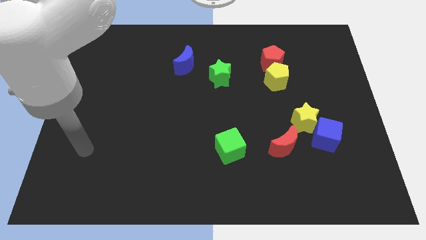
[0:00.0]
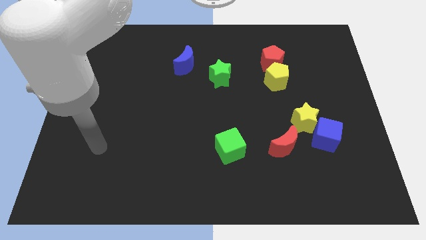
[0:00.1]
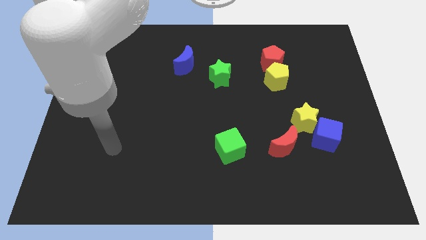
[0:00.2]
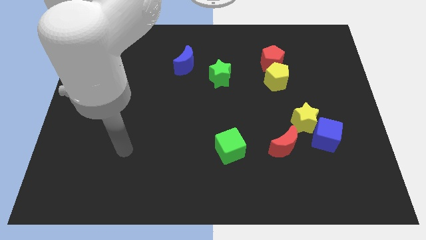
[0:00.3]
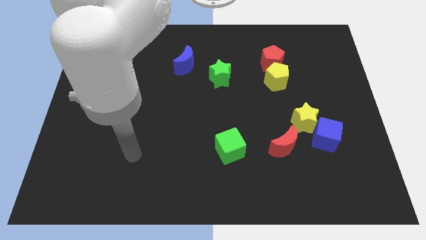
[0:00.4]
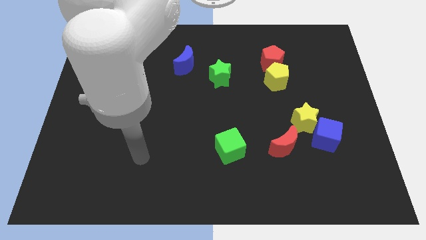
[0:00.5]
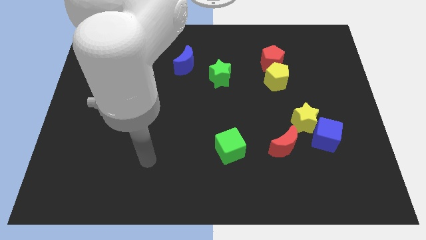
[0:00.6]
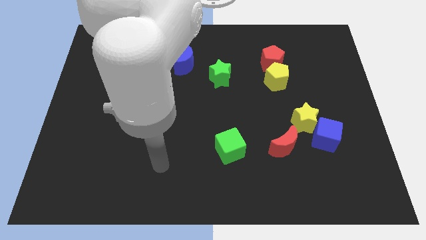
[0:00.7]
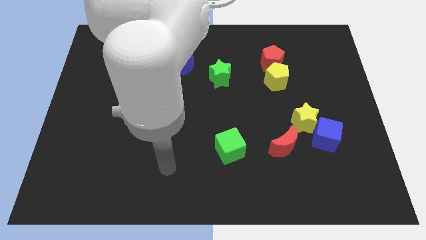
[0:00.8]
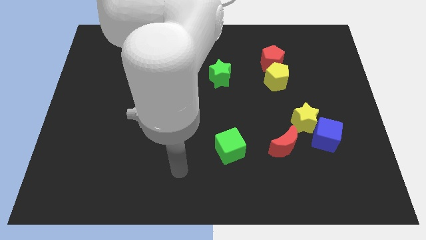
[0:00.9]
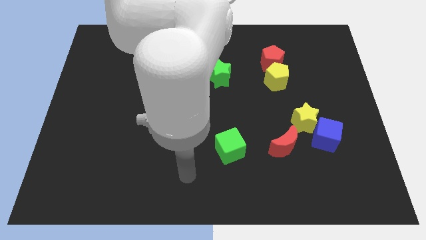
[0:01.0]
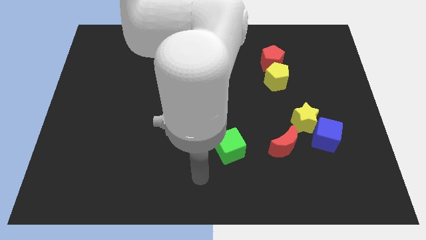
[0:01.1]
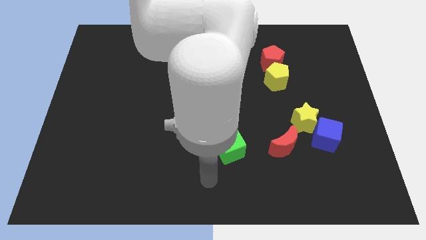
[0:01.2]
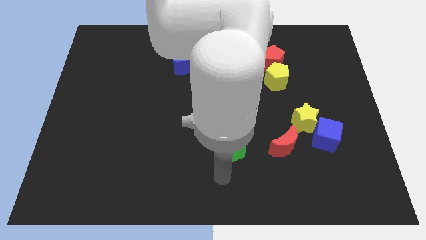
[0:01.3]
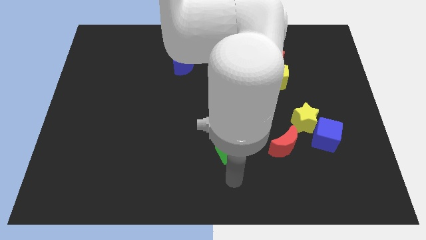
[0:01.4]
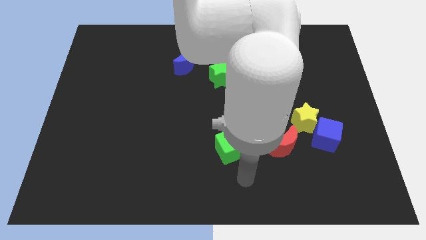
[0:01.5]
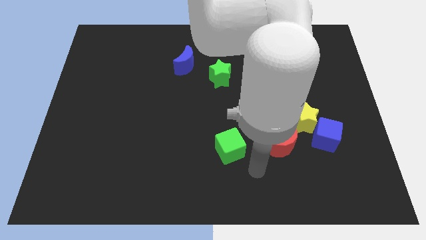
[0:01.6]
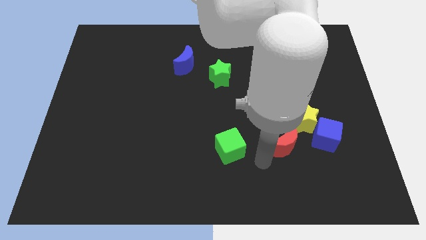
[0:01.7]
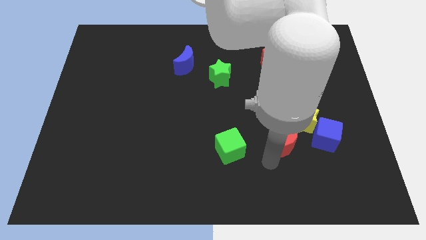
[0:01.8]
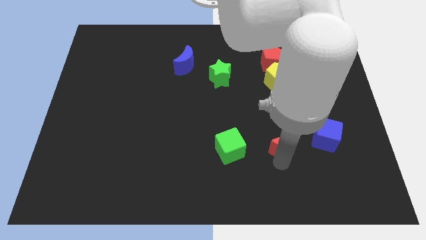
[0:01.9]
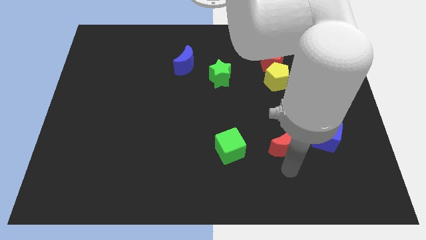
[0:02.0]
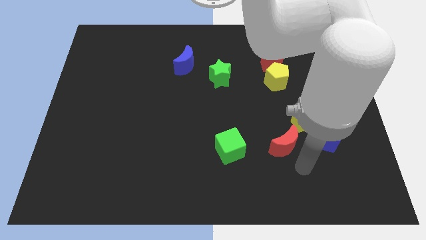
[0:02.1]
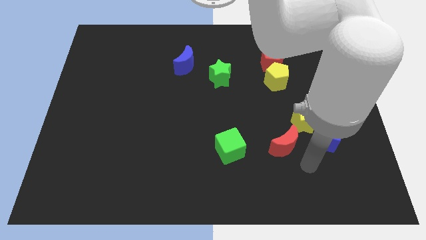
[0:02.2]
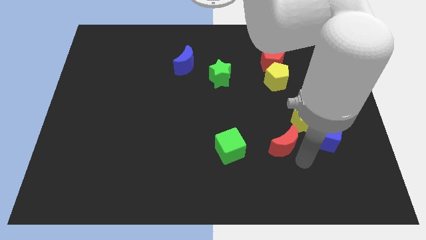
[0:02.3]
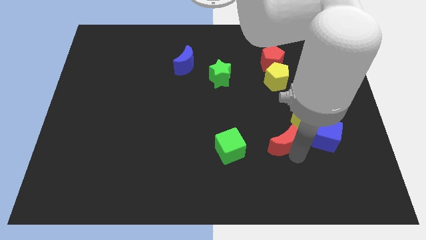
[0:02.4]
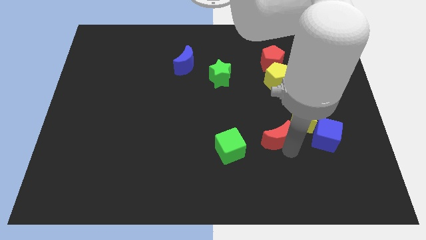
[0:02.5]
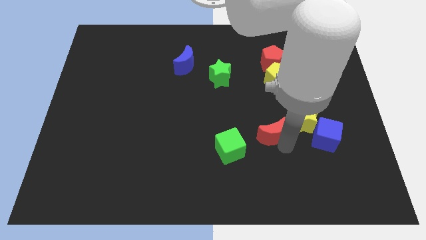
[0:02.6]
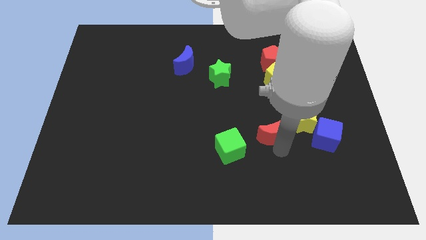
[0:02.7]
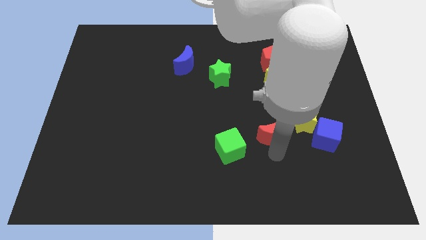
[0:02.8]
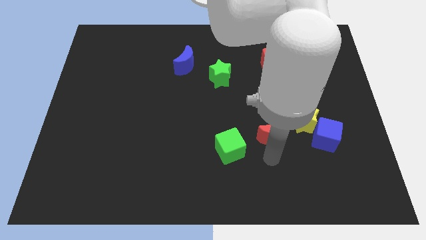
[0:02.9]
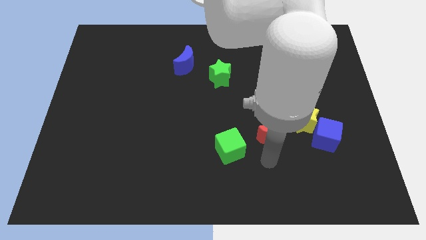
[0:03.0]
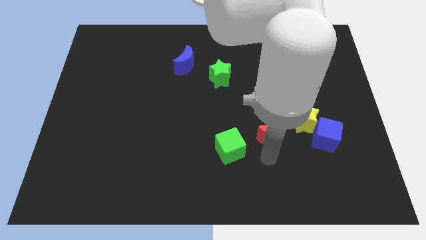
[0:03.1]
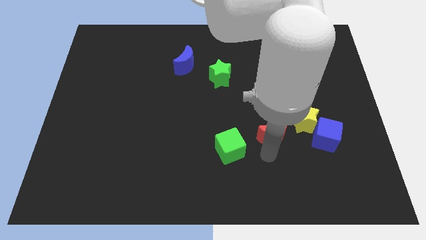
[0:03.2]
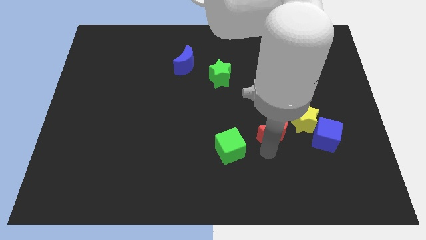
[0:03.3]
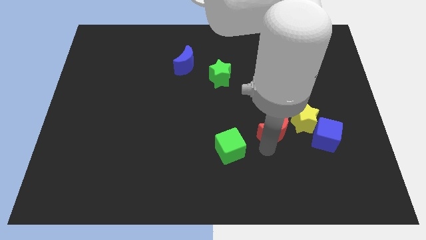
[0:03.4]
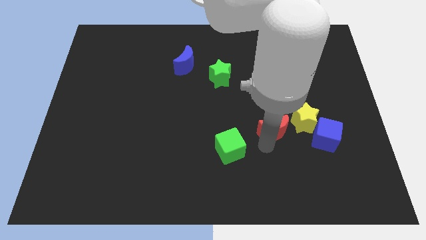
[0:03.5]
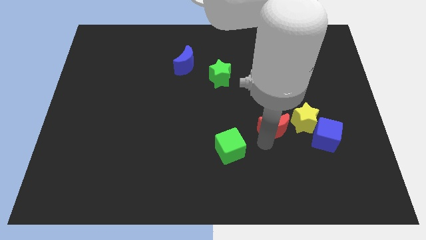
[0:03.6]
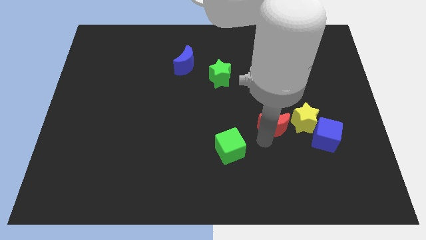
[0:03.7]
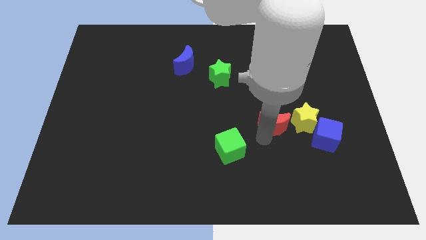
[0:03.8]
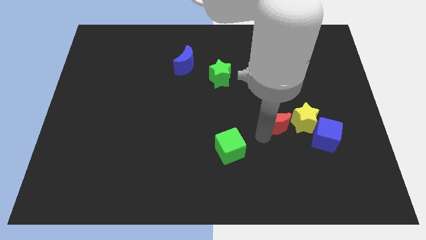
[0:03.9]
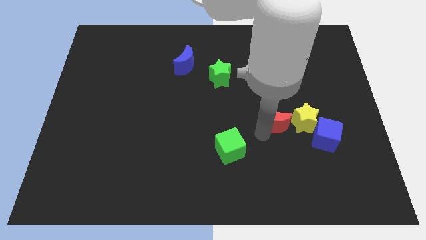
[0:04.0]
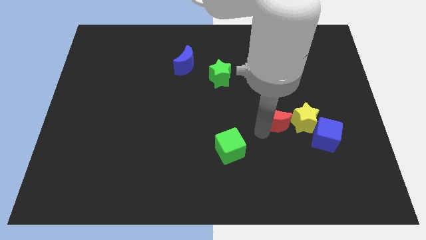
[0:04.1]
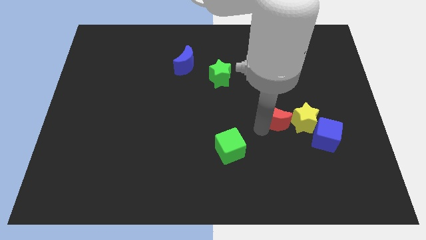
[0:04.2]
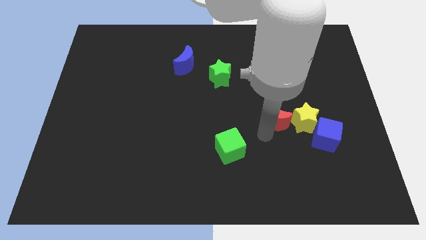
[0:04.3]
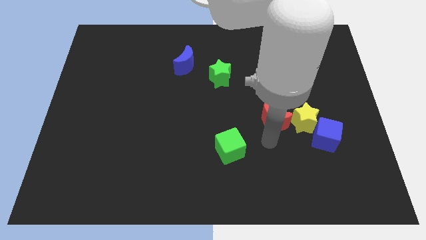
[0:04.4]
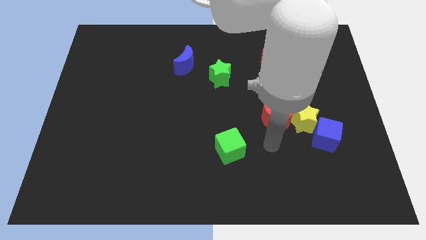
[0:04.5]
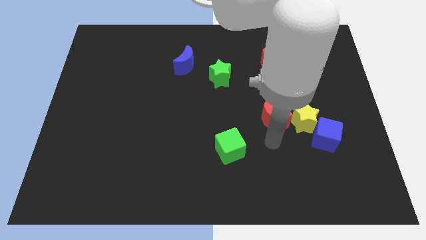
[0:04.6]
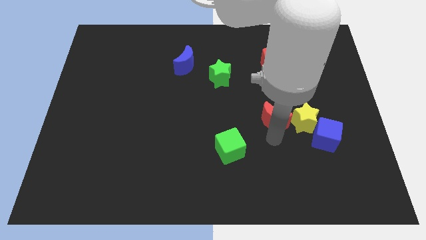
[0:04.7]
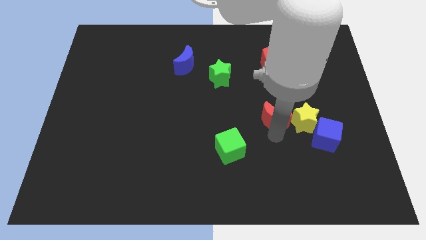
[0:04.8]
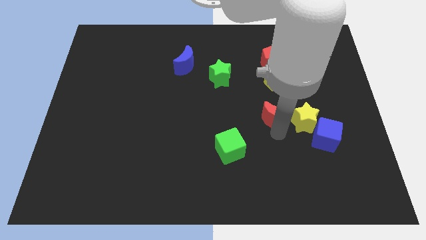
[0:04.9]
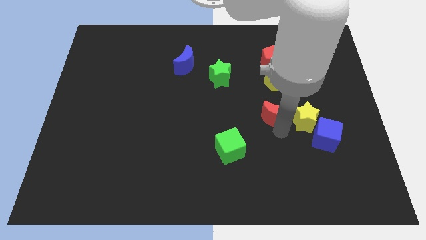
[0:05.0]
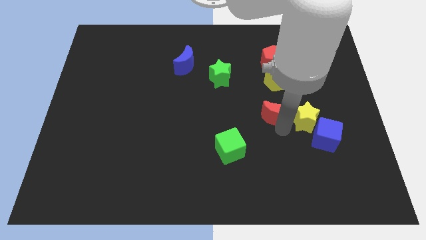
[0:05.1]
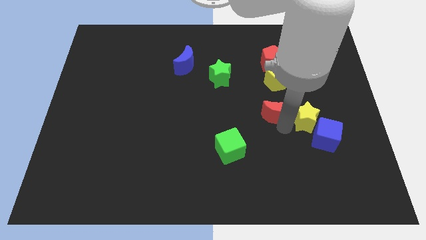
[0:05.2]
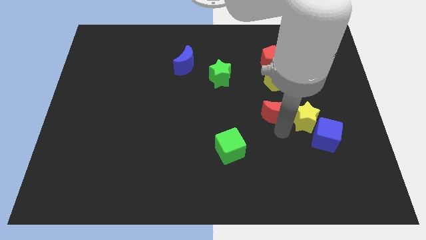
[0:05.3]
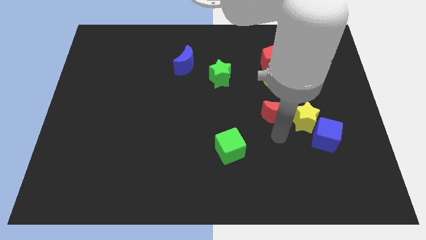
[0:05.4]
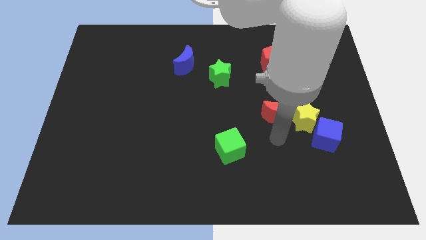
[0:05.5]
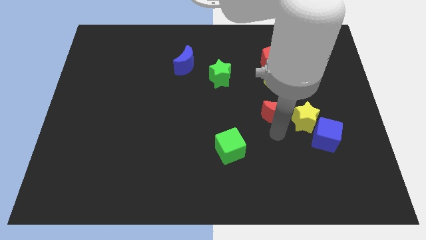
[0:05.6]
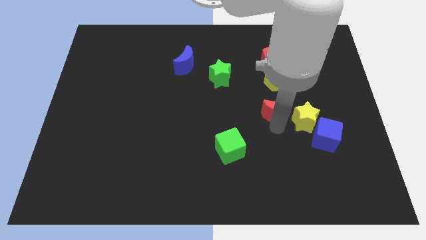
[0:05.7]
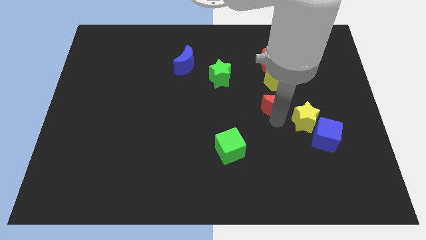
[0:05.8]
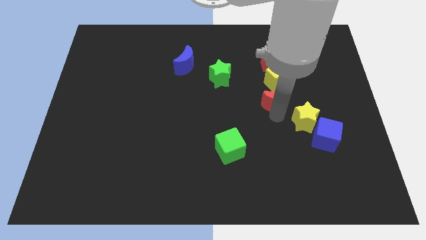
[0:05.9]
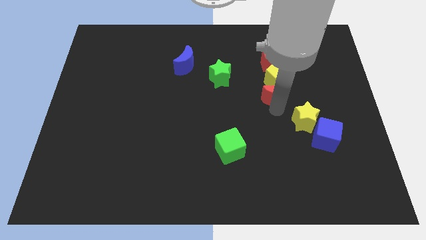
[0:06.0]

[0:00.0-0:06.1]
move the red moon close to the yellow pentagon

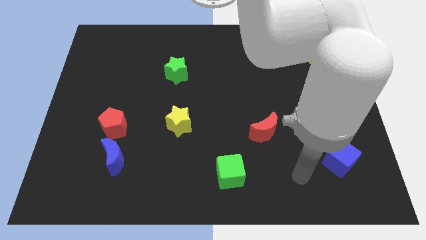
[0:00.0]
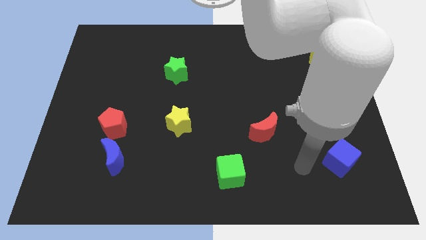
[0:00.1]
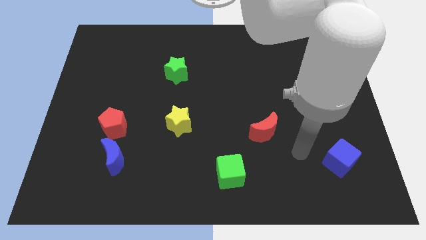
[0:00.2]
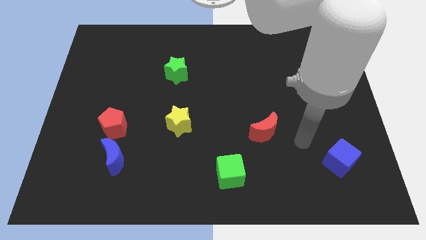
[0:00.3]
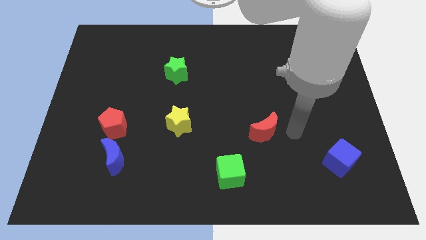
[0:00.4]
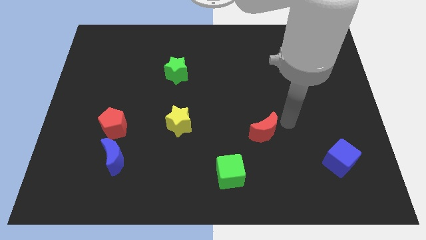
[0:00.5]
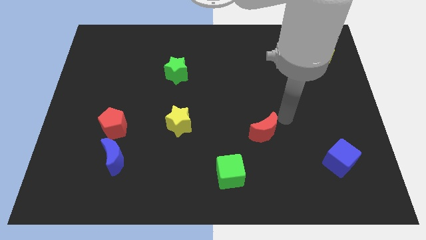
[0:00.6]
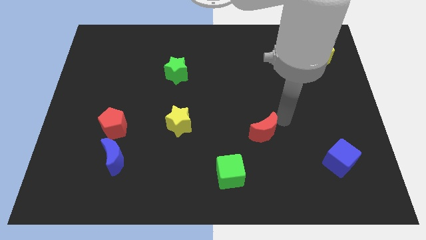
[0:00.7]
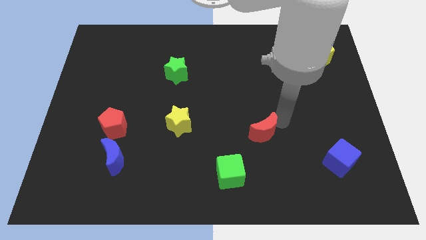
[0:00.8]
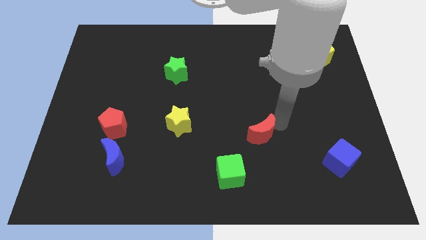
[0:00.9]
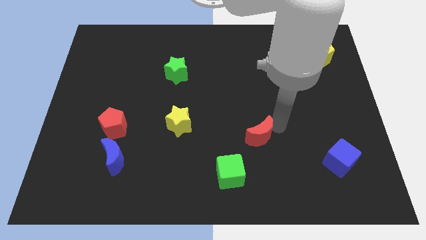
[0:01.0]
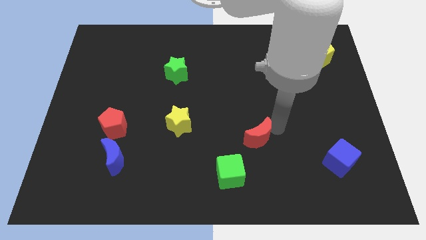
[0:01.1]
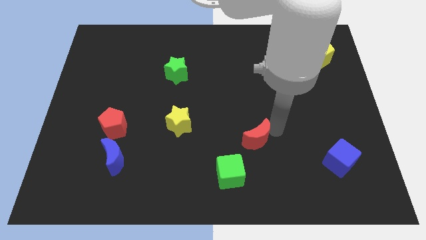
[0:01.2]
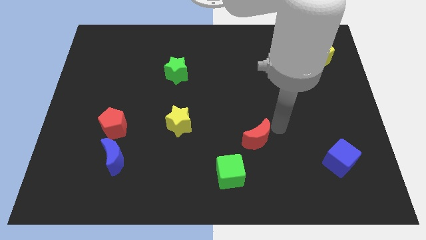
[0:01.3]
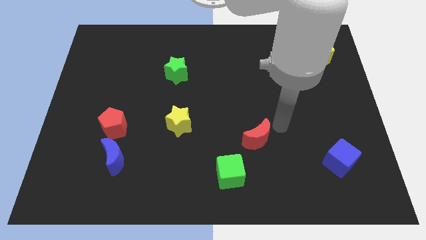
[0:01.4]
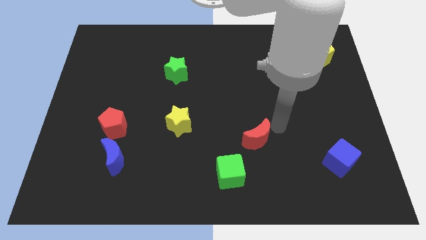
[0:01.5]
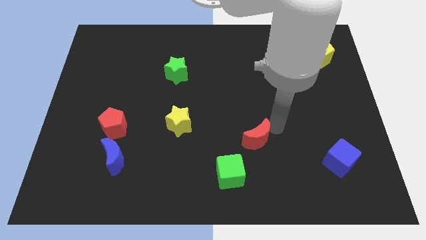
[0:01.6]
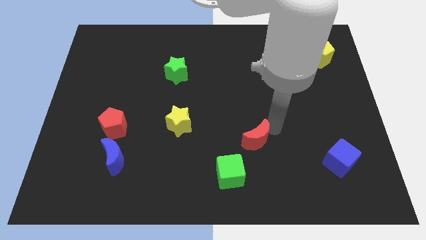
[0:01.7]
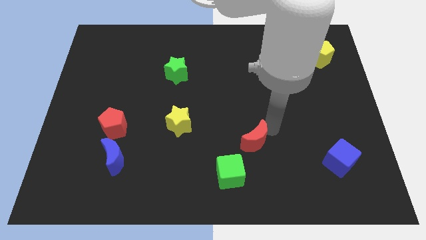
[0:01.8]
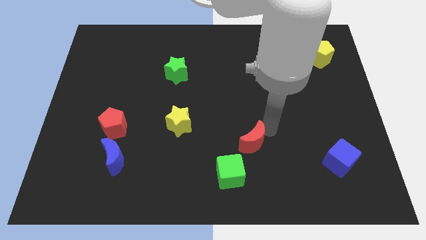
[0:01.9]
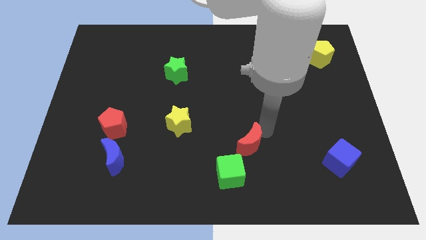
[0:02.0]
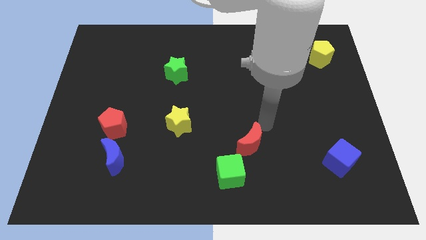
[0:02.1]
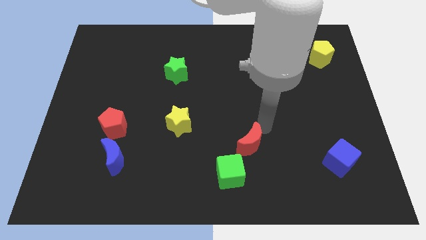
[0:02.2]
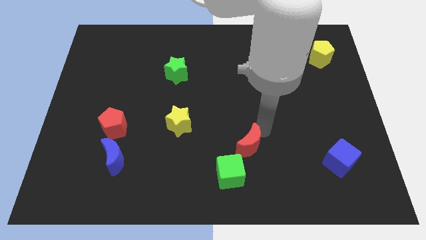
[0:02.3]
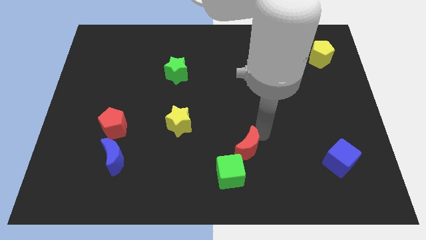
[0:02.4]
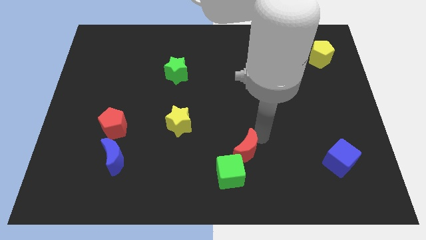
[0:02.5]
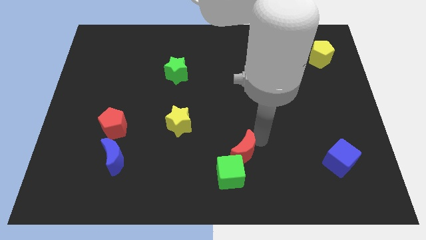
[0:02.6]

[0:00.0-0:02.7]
slide the red moon next to the green cube
